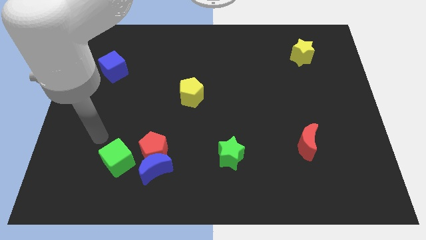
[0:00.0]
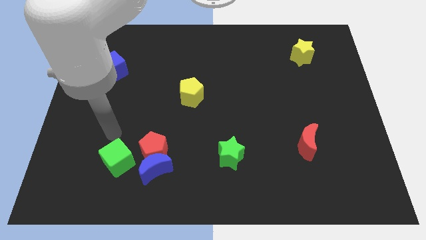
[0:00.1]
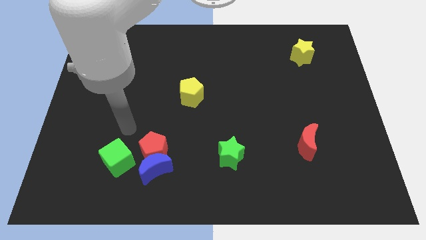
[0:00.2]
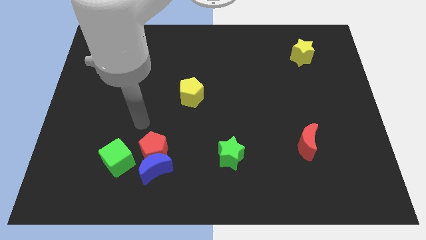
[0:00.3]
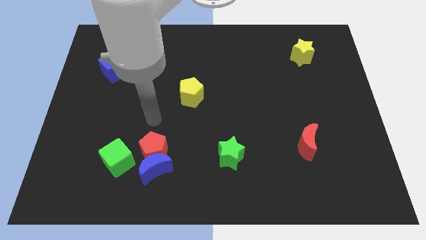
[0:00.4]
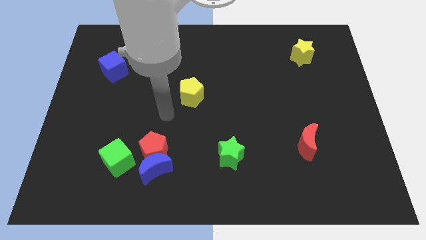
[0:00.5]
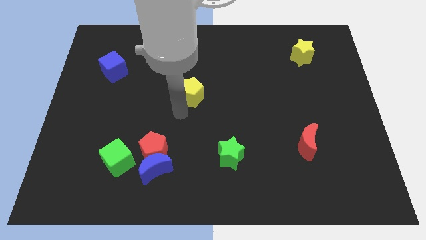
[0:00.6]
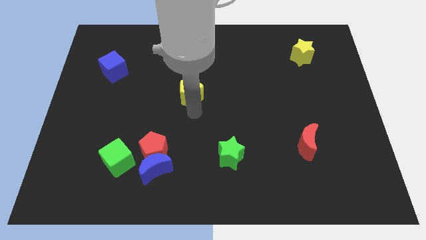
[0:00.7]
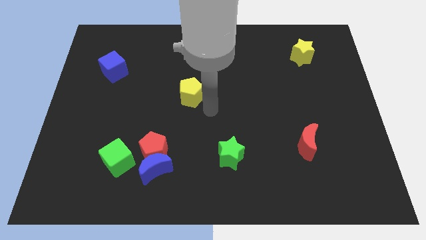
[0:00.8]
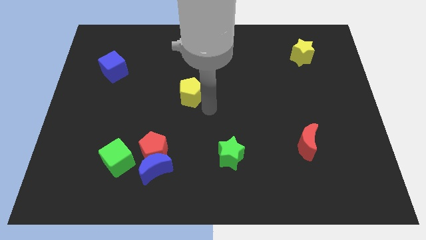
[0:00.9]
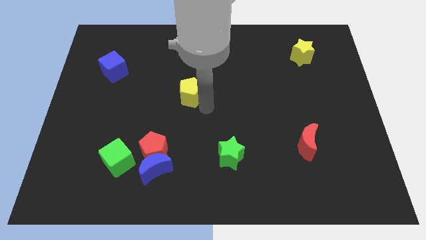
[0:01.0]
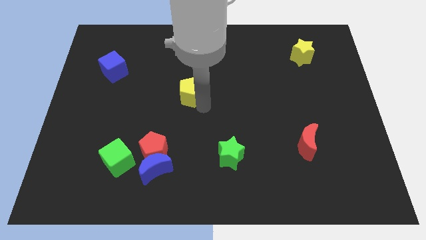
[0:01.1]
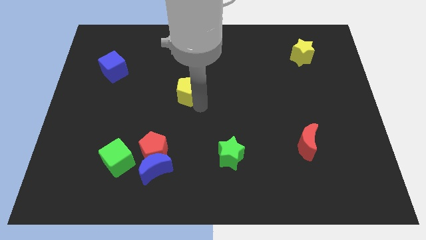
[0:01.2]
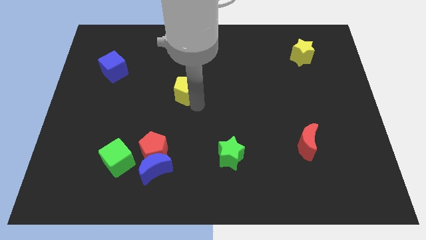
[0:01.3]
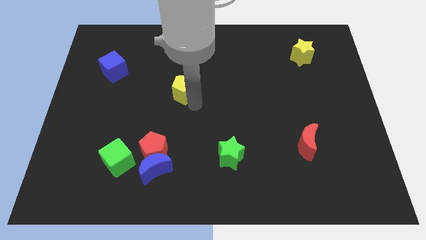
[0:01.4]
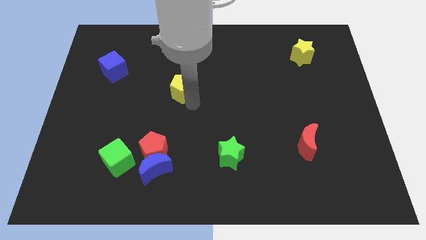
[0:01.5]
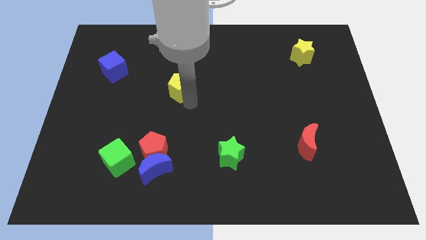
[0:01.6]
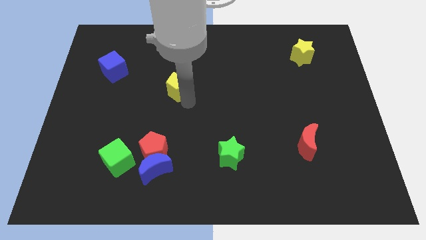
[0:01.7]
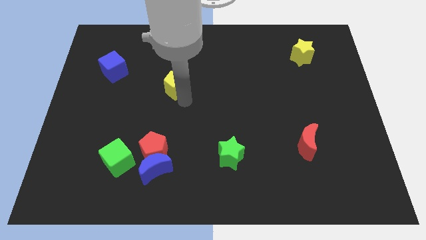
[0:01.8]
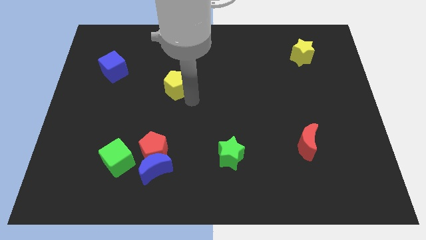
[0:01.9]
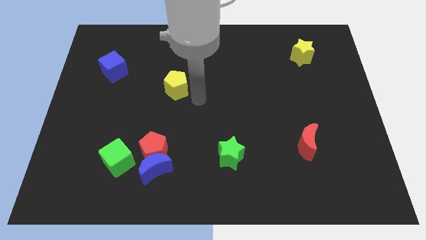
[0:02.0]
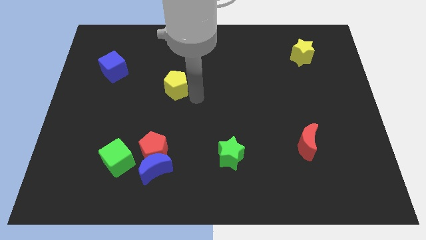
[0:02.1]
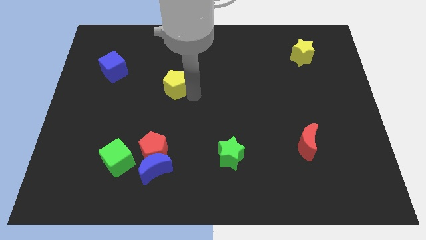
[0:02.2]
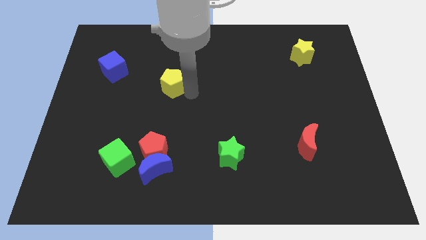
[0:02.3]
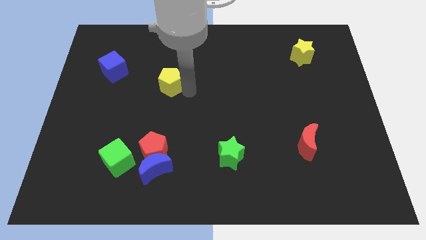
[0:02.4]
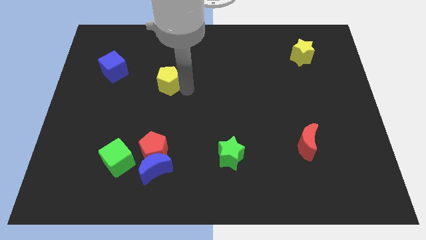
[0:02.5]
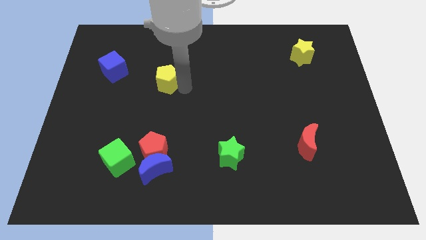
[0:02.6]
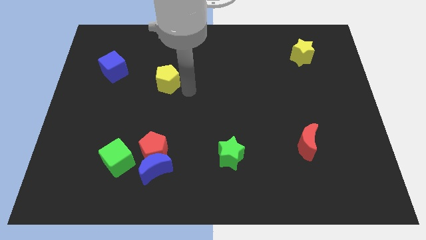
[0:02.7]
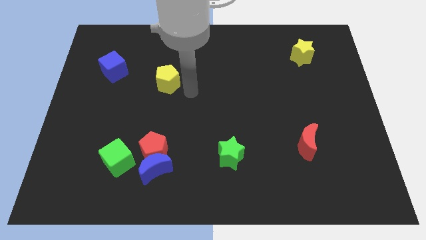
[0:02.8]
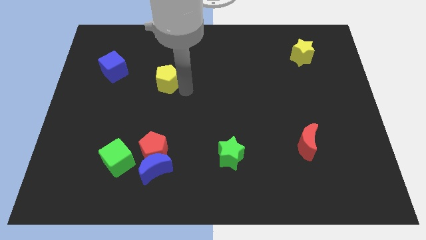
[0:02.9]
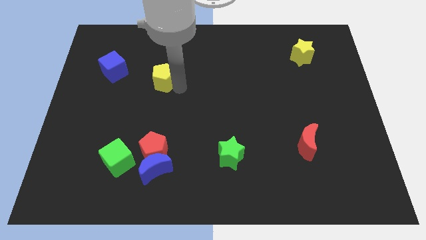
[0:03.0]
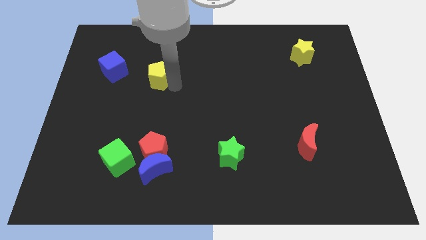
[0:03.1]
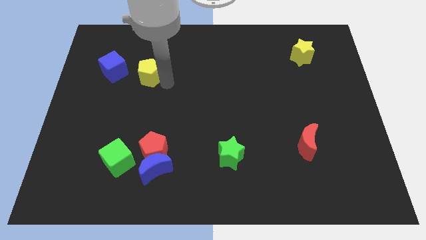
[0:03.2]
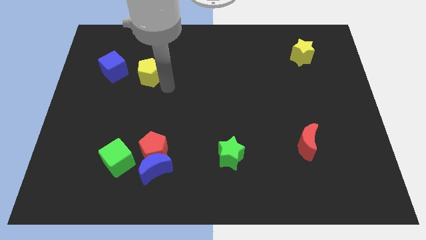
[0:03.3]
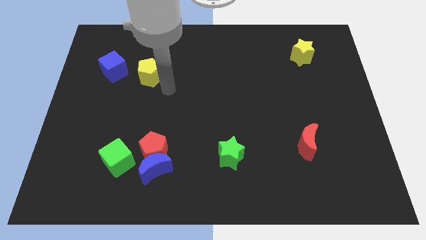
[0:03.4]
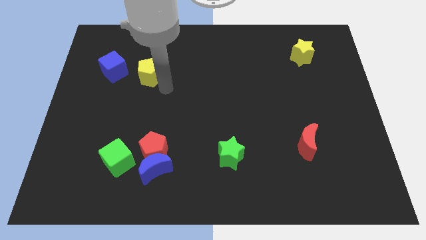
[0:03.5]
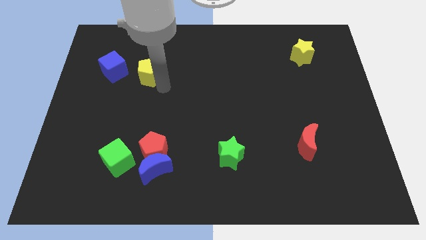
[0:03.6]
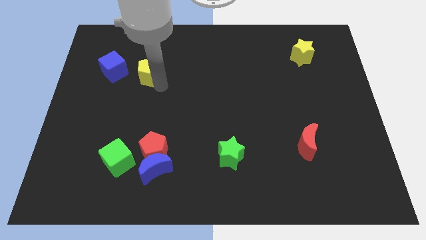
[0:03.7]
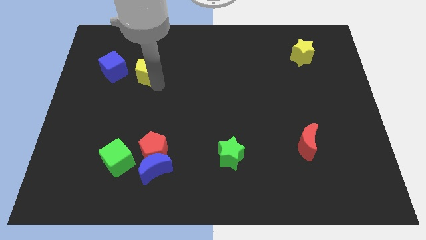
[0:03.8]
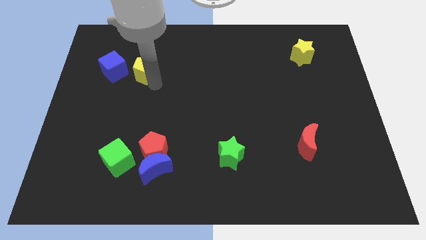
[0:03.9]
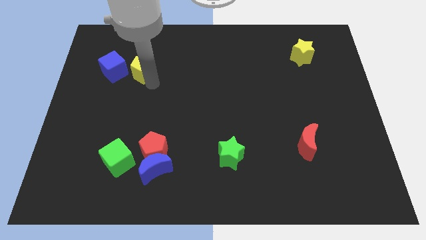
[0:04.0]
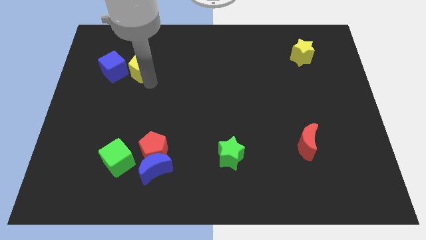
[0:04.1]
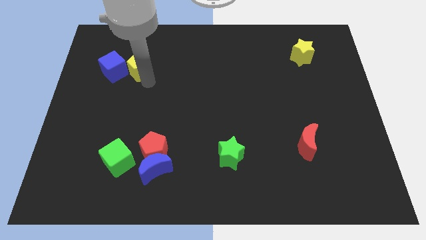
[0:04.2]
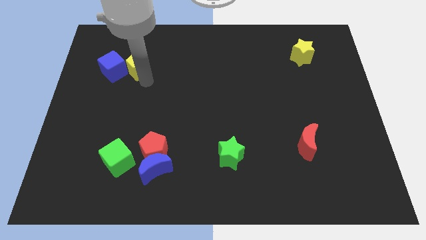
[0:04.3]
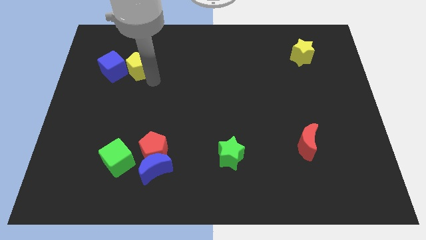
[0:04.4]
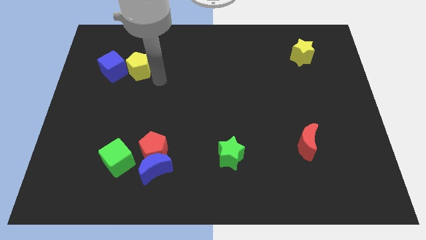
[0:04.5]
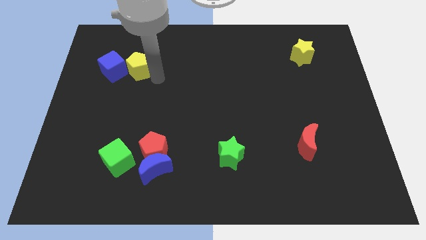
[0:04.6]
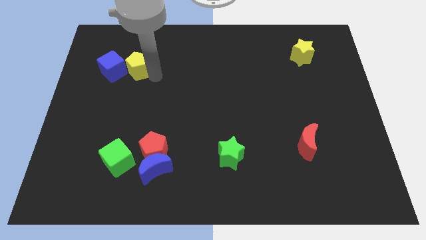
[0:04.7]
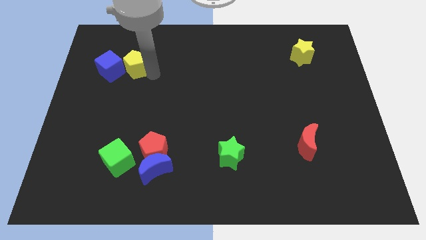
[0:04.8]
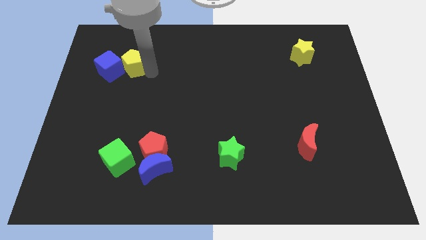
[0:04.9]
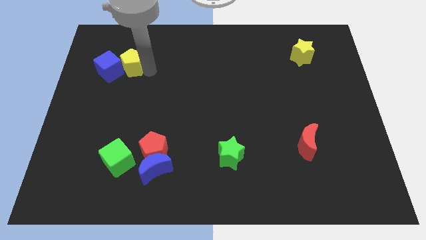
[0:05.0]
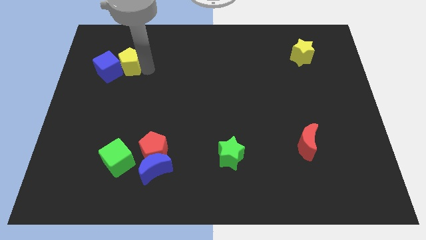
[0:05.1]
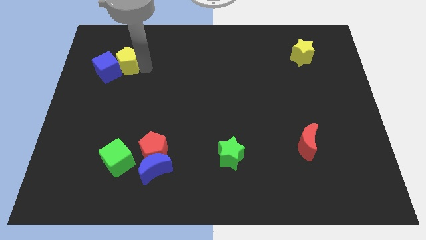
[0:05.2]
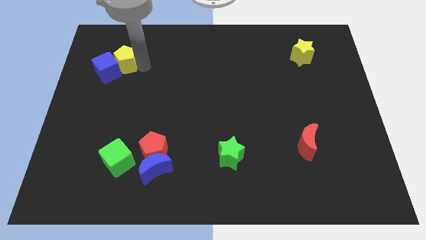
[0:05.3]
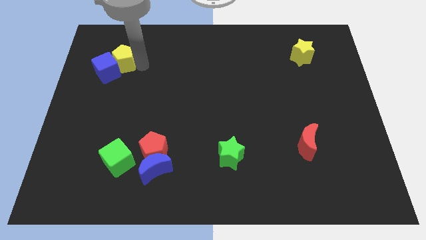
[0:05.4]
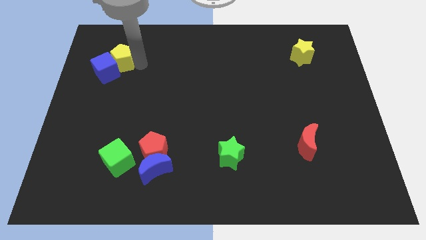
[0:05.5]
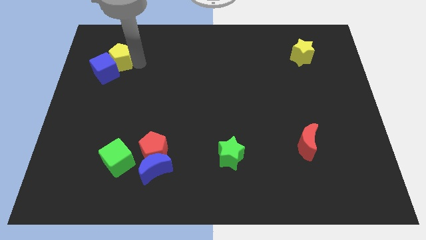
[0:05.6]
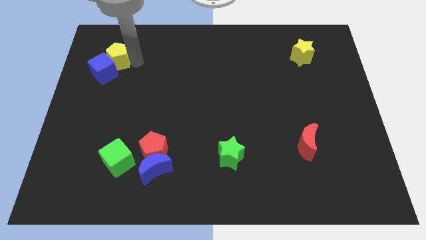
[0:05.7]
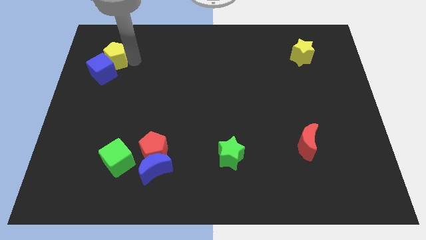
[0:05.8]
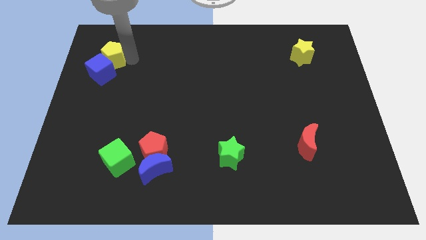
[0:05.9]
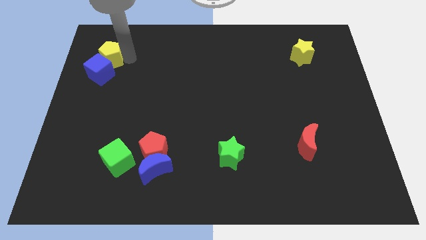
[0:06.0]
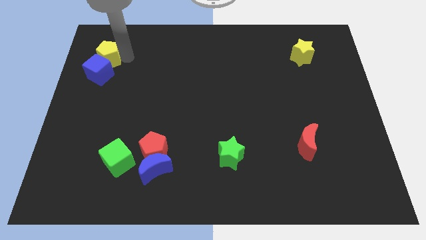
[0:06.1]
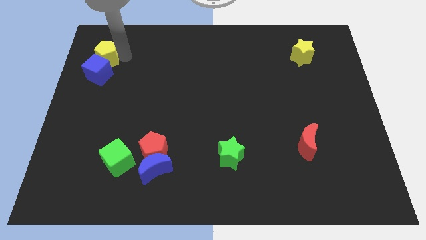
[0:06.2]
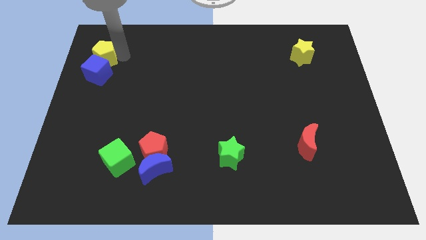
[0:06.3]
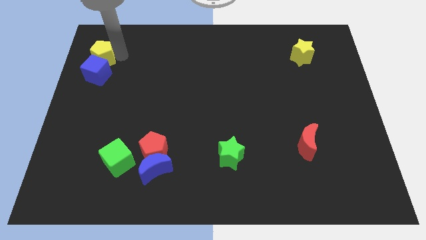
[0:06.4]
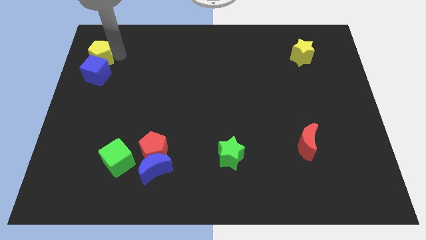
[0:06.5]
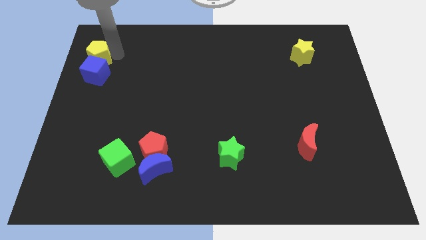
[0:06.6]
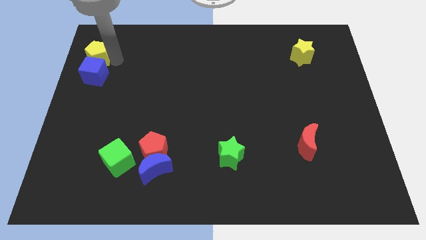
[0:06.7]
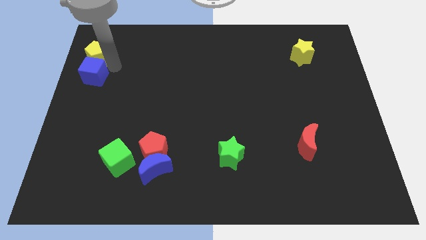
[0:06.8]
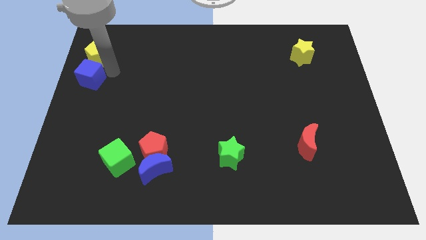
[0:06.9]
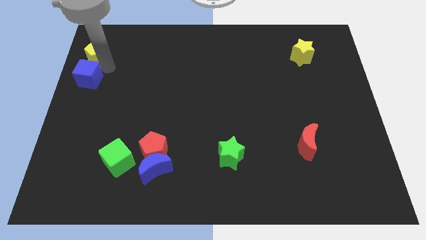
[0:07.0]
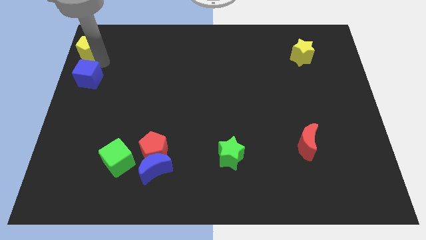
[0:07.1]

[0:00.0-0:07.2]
put the yellow pentagon to the top left
